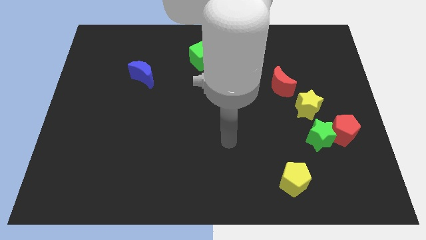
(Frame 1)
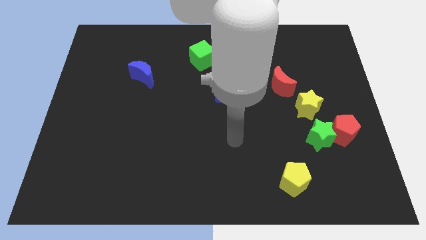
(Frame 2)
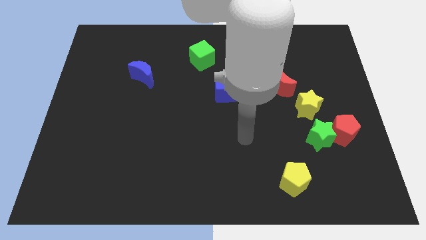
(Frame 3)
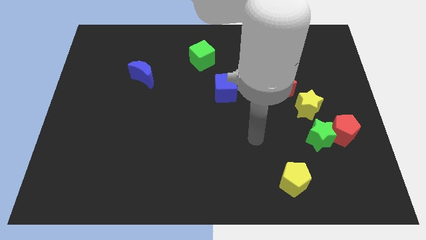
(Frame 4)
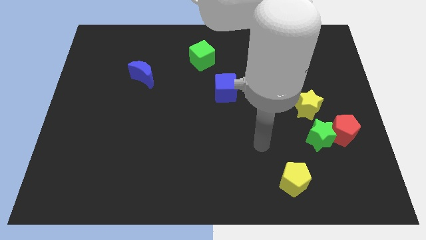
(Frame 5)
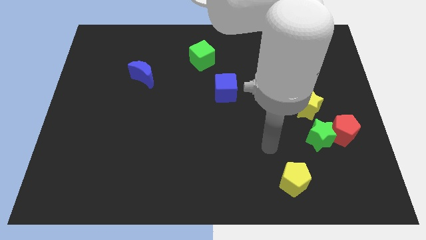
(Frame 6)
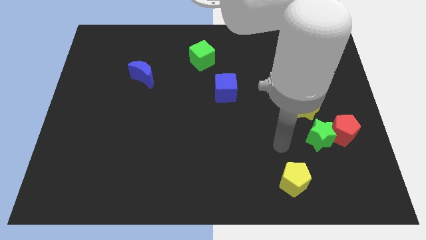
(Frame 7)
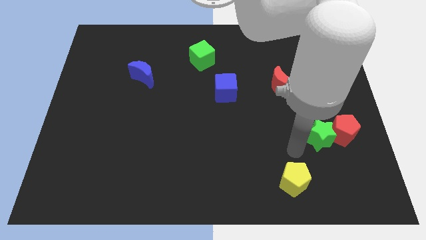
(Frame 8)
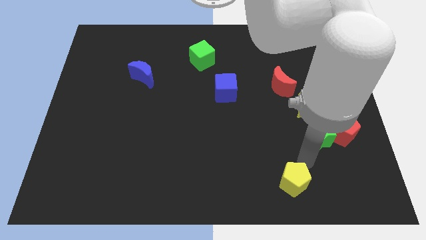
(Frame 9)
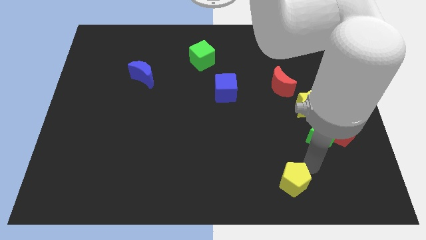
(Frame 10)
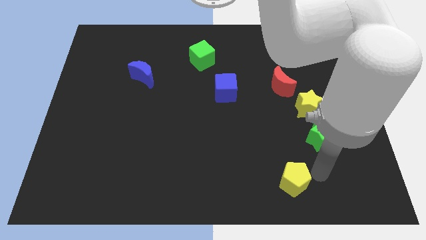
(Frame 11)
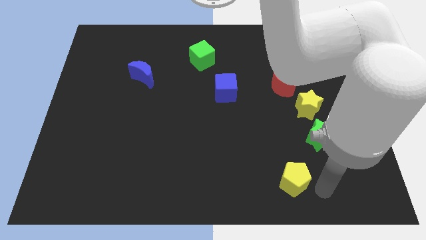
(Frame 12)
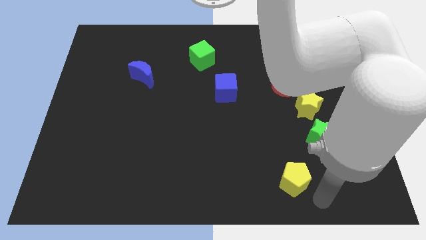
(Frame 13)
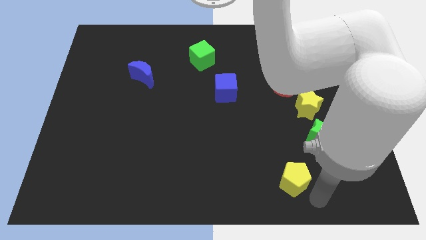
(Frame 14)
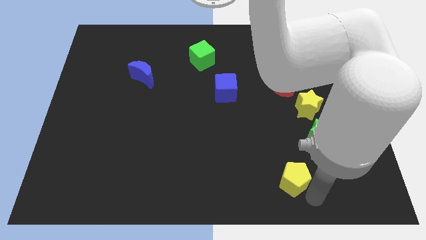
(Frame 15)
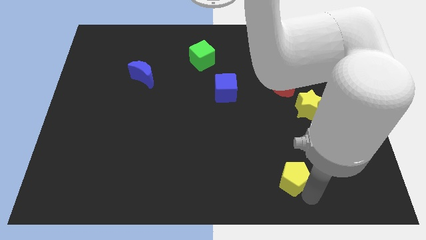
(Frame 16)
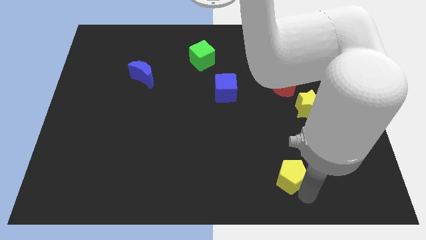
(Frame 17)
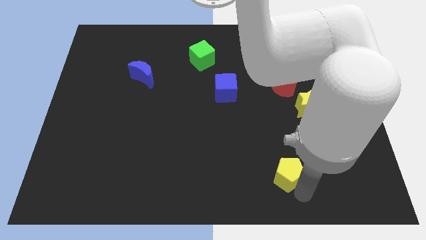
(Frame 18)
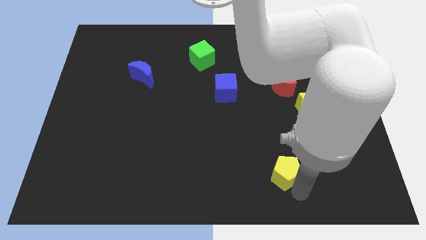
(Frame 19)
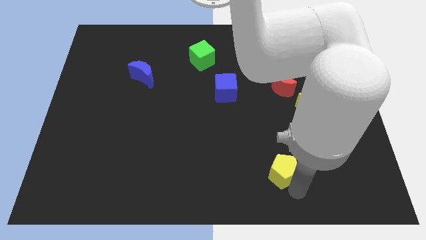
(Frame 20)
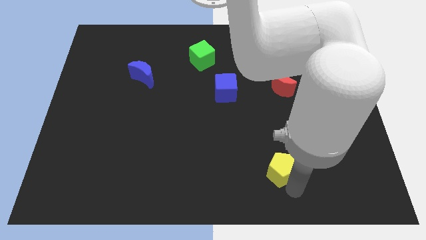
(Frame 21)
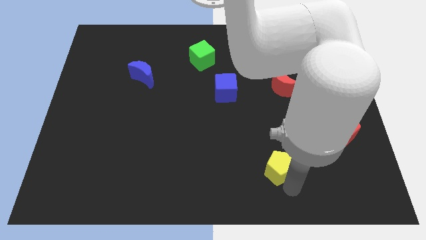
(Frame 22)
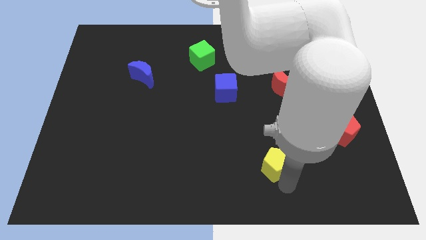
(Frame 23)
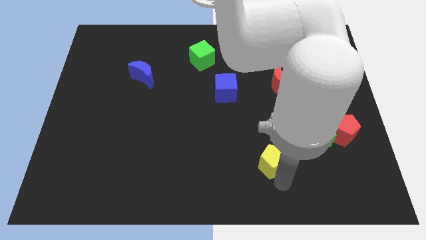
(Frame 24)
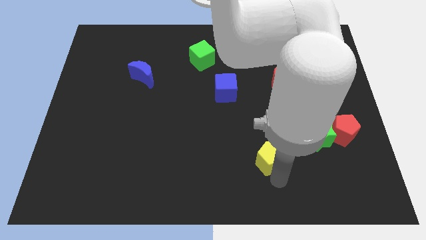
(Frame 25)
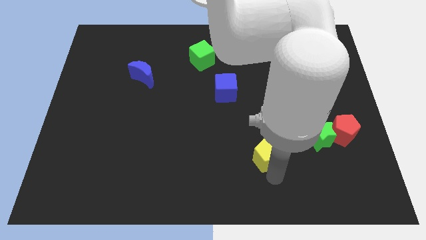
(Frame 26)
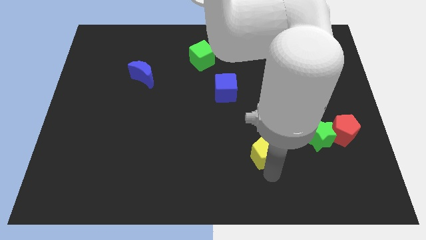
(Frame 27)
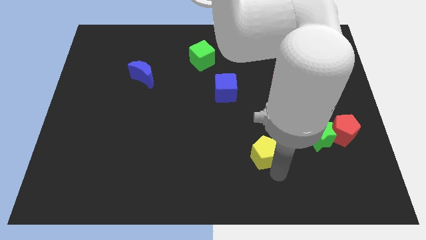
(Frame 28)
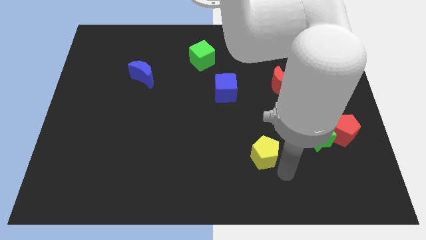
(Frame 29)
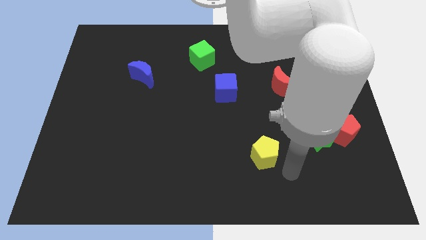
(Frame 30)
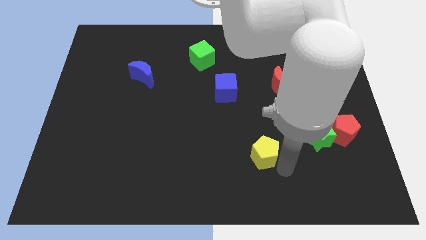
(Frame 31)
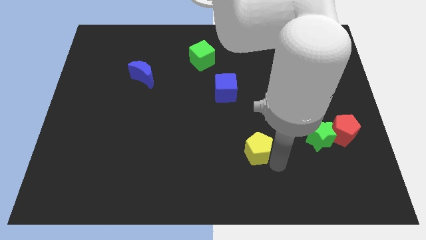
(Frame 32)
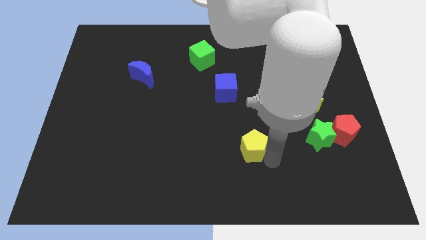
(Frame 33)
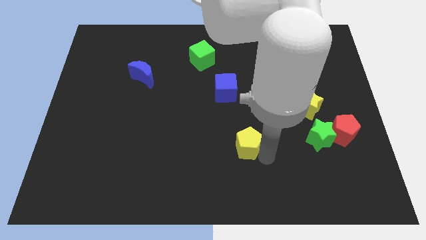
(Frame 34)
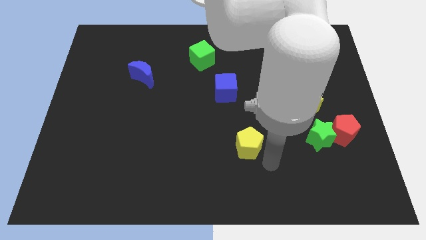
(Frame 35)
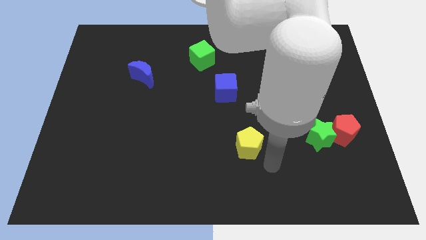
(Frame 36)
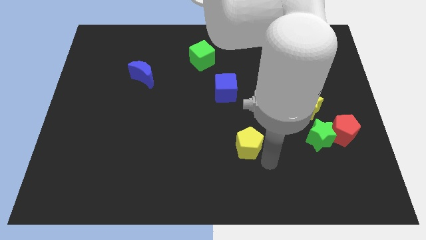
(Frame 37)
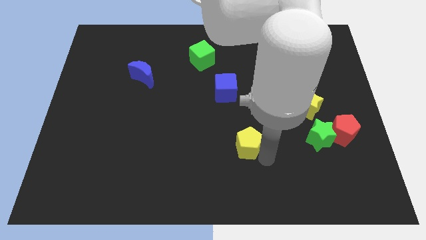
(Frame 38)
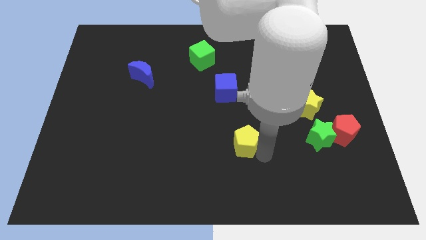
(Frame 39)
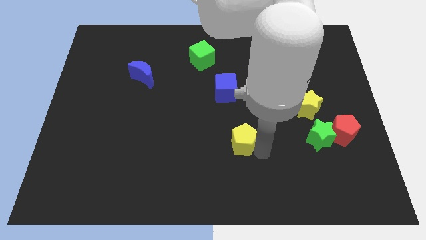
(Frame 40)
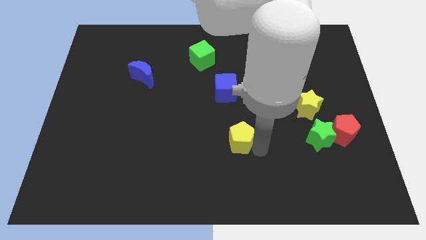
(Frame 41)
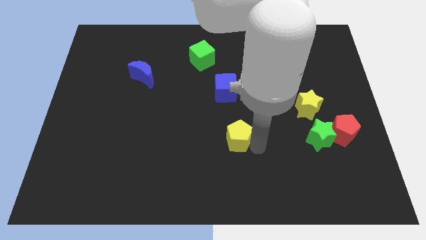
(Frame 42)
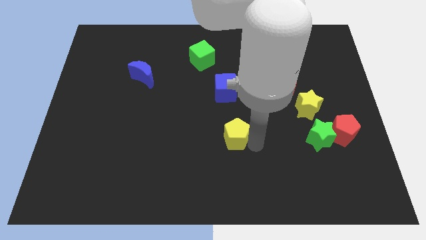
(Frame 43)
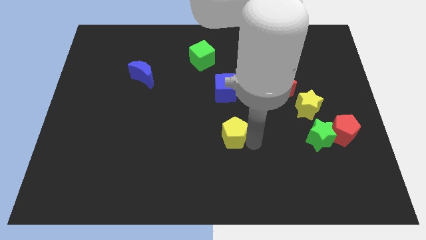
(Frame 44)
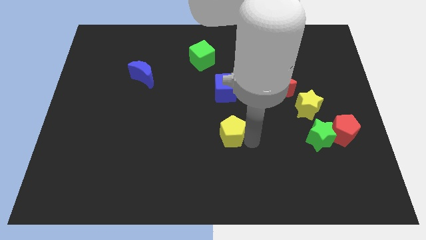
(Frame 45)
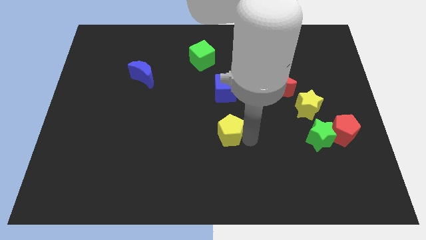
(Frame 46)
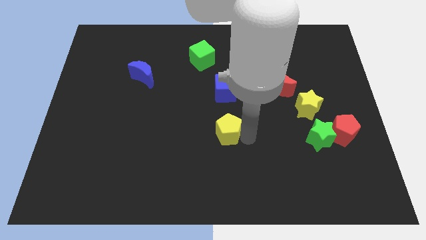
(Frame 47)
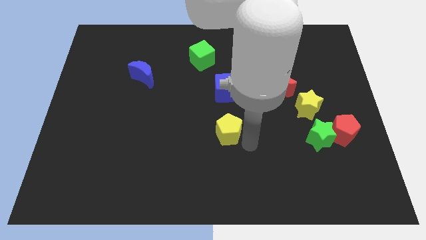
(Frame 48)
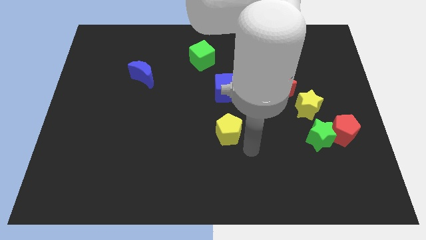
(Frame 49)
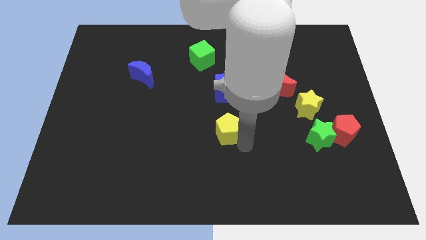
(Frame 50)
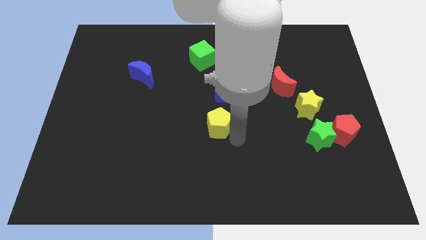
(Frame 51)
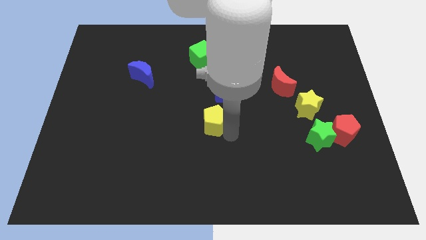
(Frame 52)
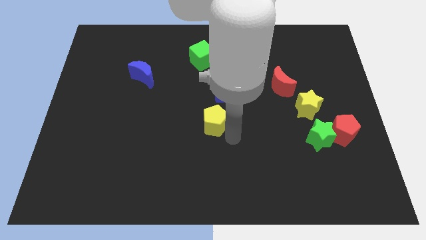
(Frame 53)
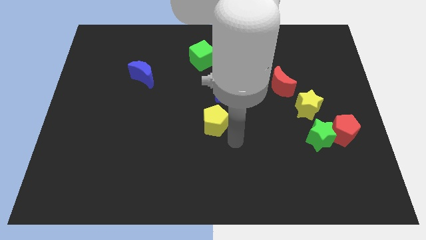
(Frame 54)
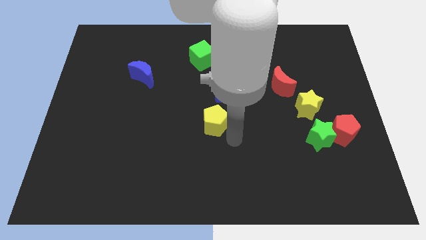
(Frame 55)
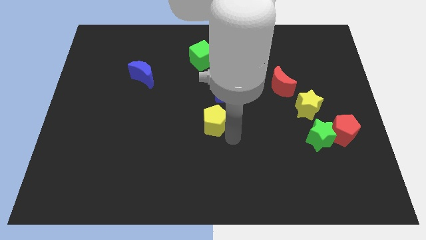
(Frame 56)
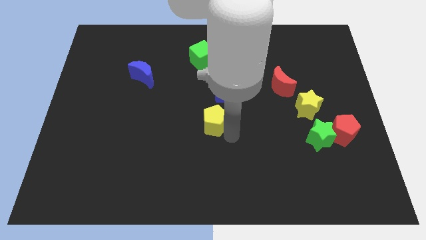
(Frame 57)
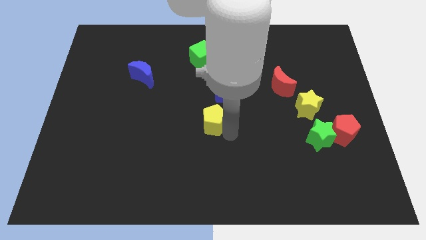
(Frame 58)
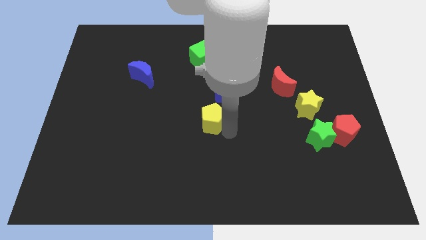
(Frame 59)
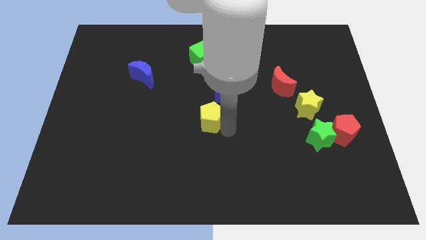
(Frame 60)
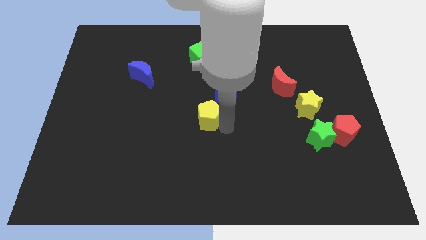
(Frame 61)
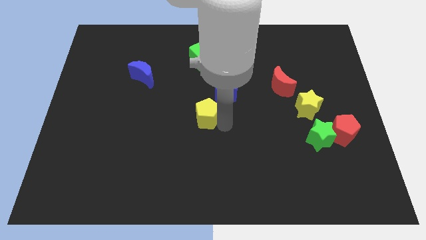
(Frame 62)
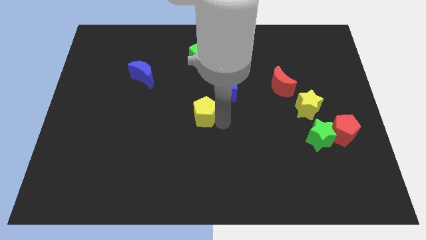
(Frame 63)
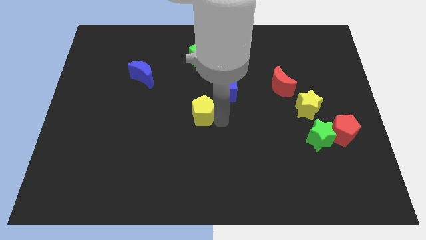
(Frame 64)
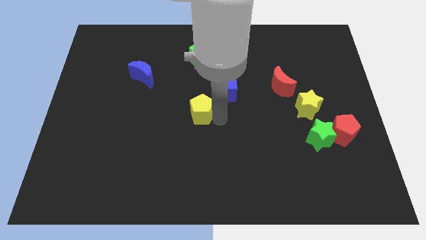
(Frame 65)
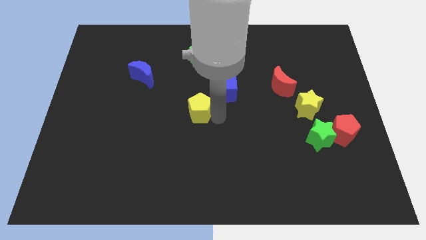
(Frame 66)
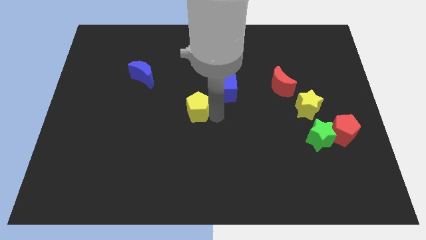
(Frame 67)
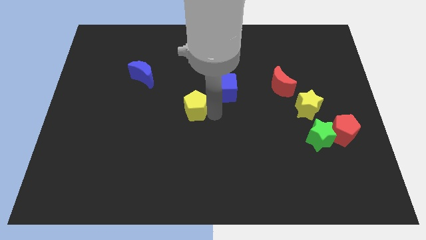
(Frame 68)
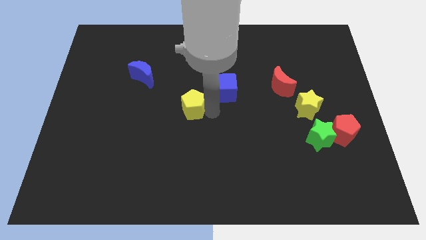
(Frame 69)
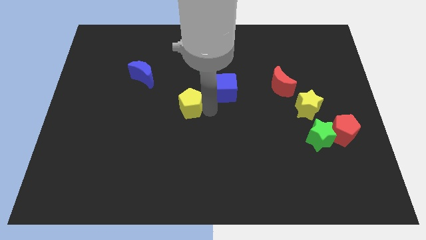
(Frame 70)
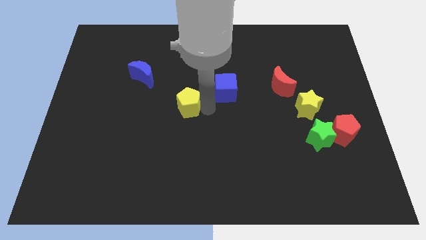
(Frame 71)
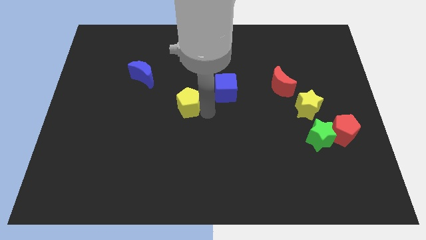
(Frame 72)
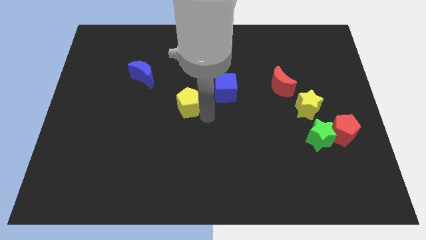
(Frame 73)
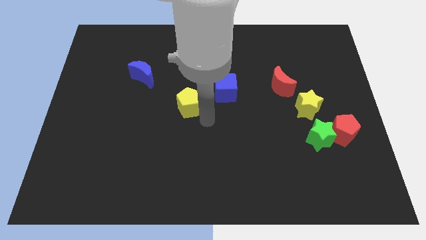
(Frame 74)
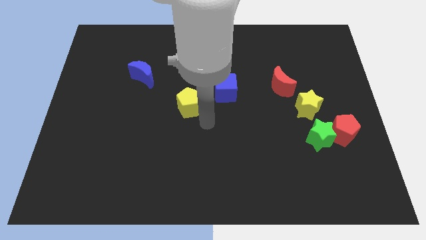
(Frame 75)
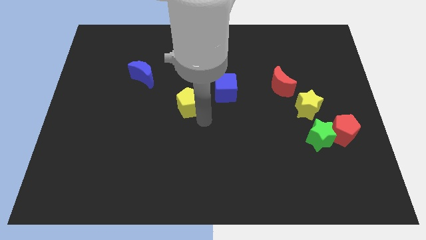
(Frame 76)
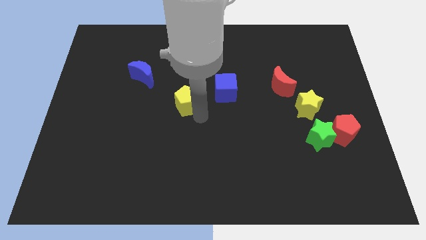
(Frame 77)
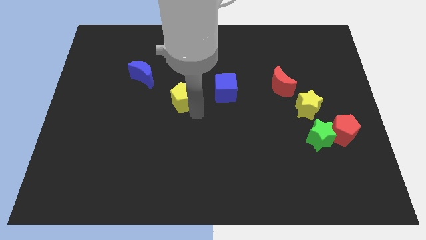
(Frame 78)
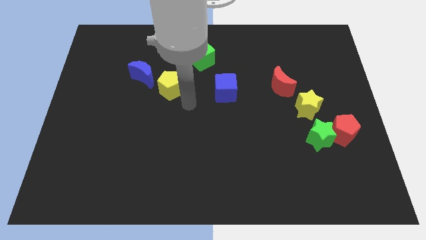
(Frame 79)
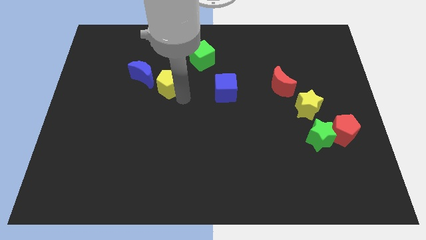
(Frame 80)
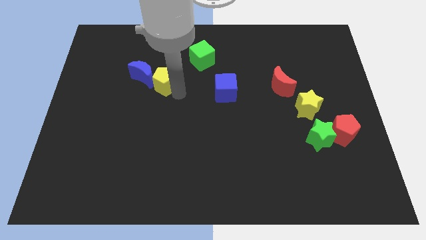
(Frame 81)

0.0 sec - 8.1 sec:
push the yellow pentagon towards the blue moon
